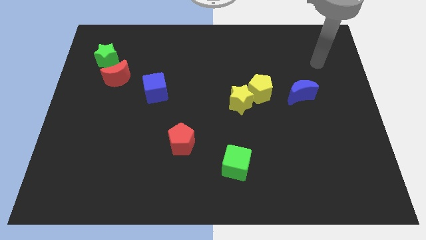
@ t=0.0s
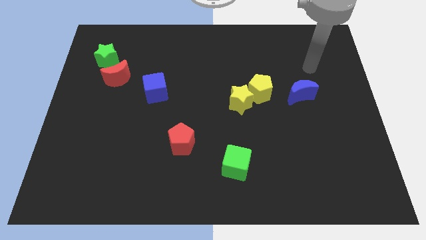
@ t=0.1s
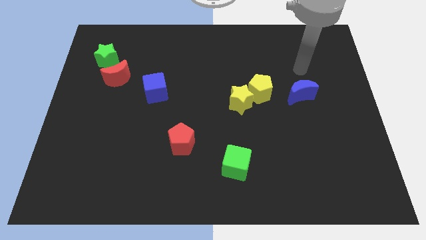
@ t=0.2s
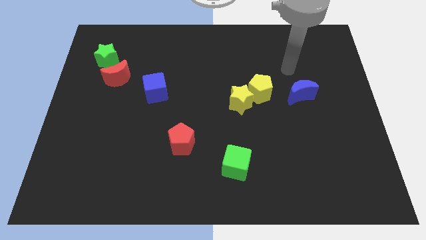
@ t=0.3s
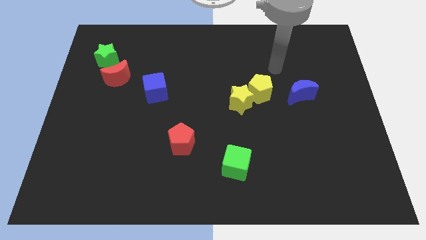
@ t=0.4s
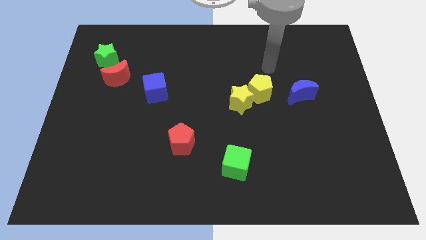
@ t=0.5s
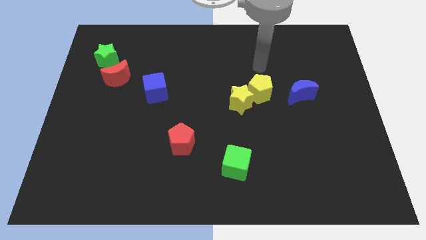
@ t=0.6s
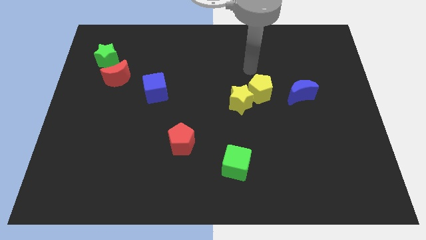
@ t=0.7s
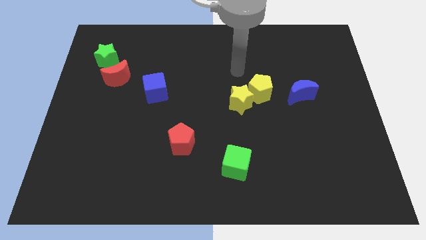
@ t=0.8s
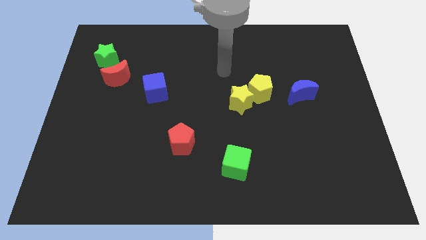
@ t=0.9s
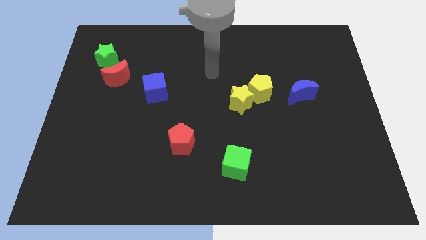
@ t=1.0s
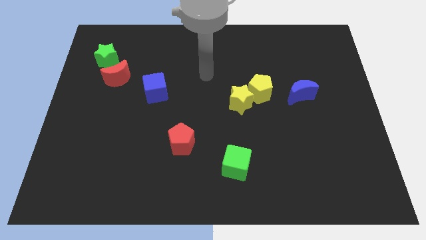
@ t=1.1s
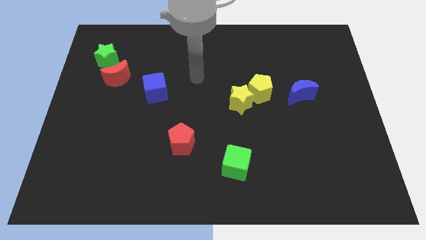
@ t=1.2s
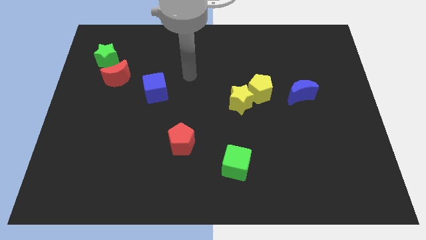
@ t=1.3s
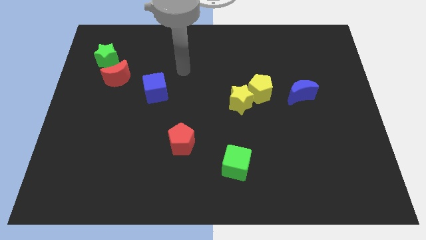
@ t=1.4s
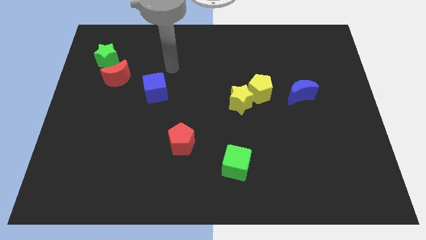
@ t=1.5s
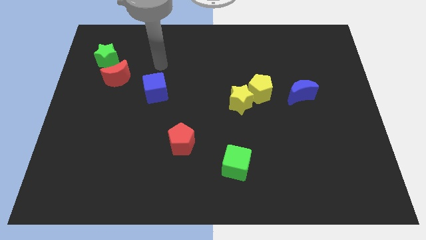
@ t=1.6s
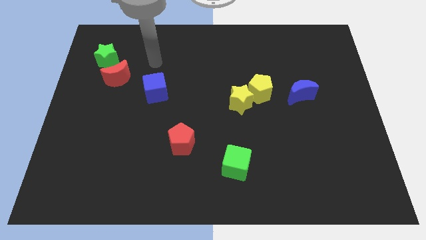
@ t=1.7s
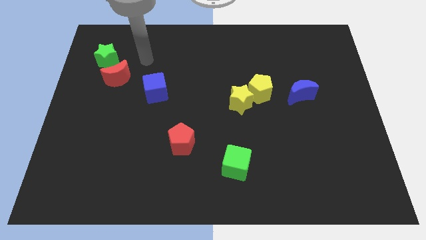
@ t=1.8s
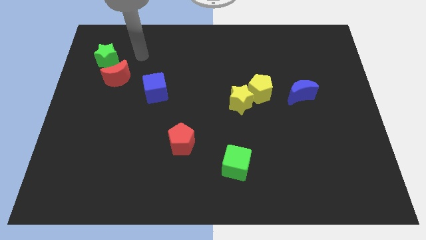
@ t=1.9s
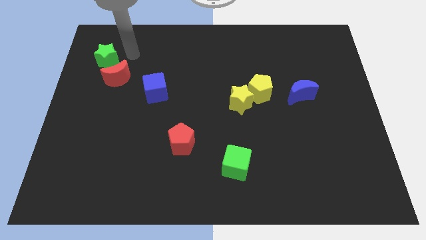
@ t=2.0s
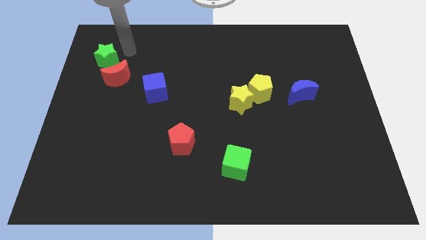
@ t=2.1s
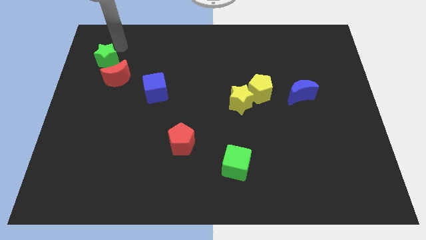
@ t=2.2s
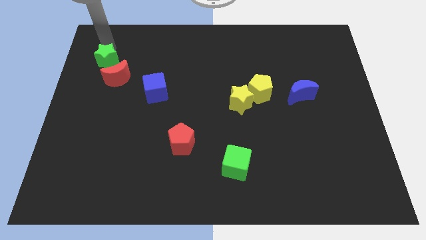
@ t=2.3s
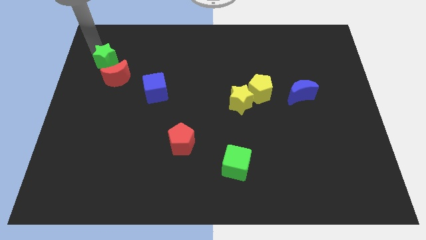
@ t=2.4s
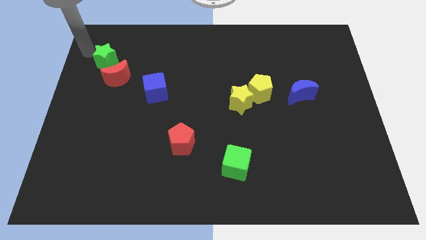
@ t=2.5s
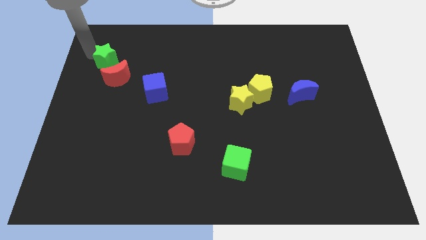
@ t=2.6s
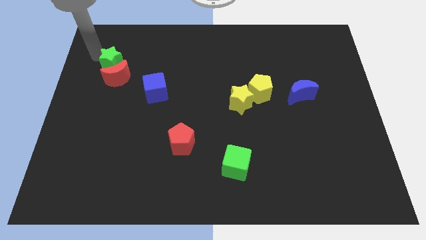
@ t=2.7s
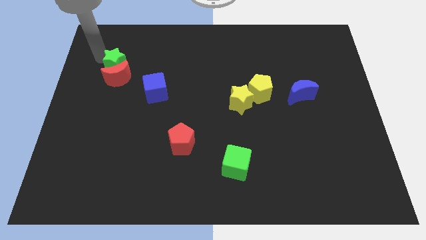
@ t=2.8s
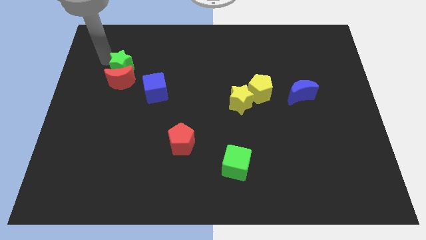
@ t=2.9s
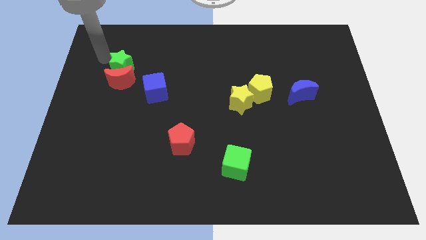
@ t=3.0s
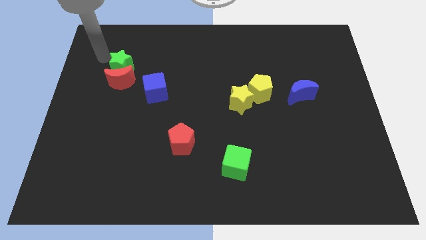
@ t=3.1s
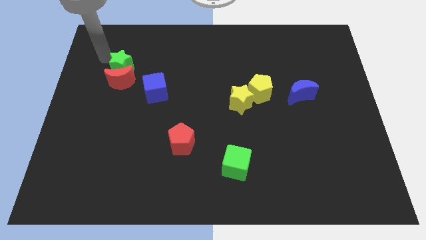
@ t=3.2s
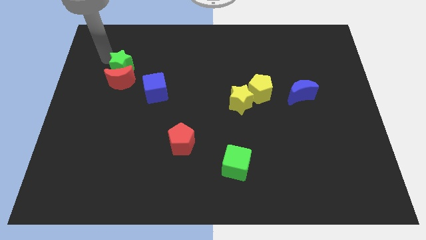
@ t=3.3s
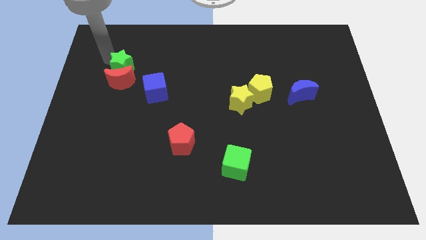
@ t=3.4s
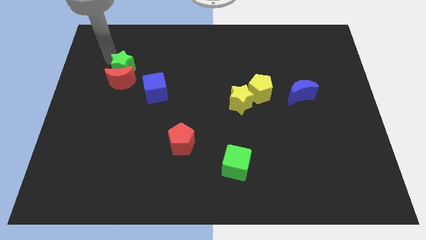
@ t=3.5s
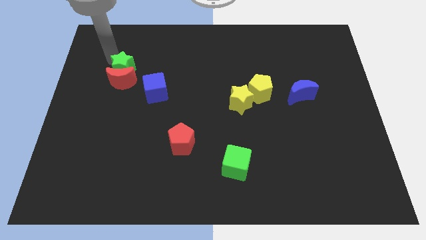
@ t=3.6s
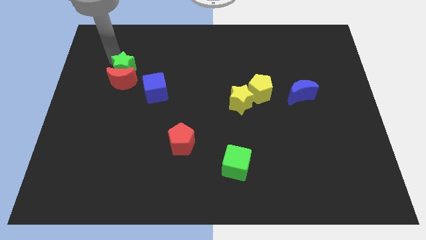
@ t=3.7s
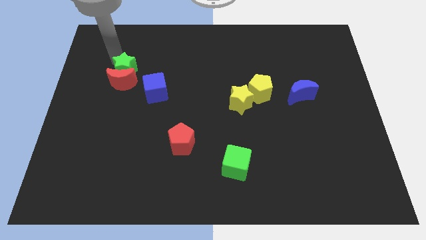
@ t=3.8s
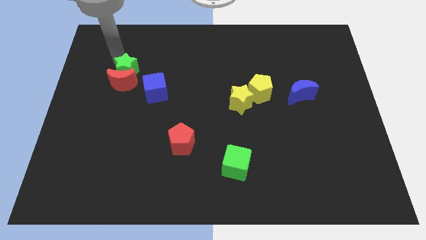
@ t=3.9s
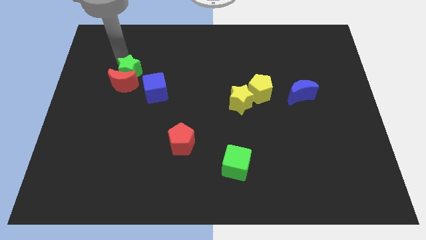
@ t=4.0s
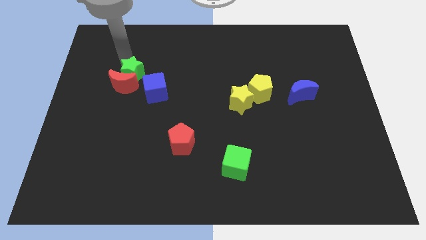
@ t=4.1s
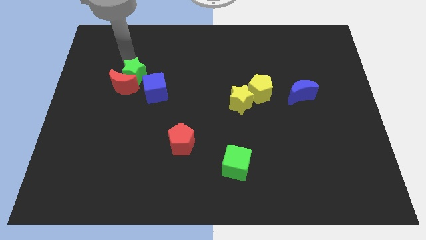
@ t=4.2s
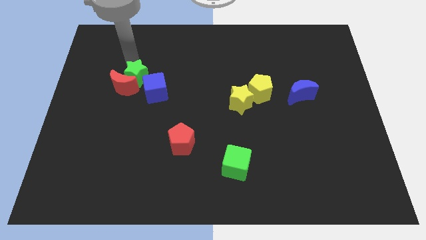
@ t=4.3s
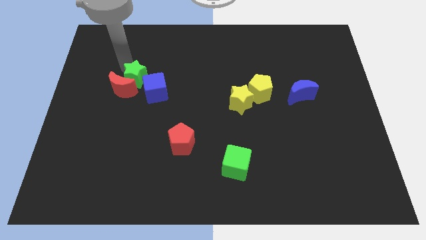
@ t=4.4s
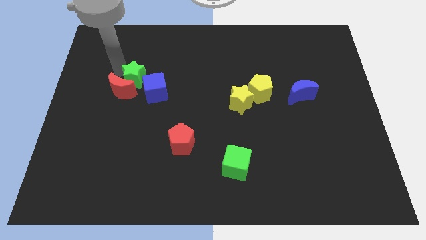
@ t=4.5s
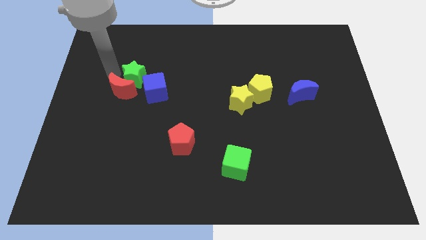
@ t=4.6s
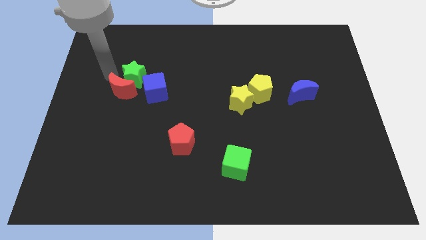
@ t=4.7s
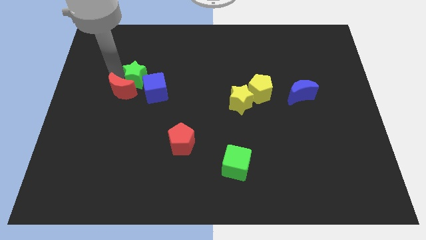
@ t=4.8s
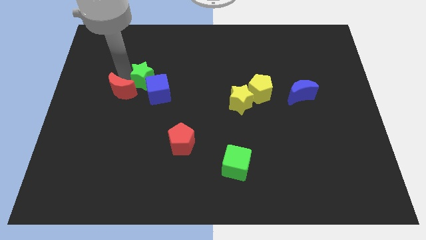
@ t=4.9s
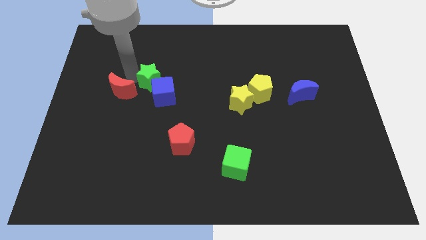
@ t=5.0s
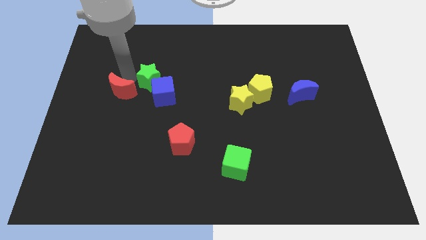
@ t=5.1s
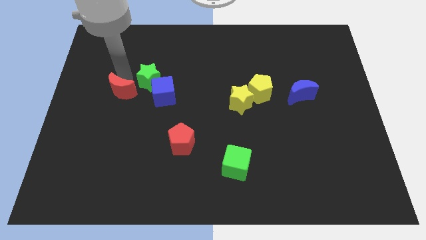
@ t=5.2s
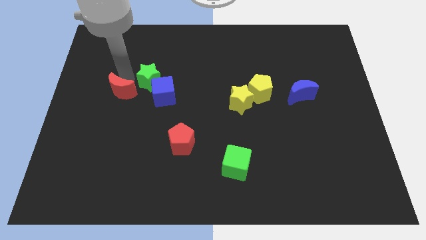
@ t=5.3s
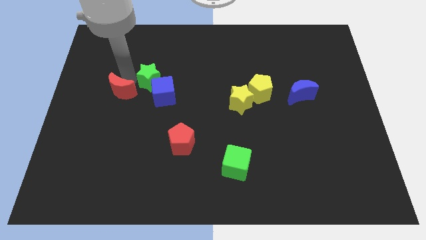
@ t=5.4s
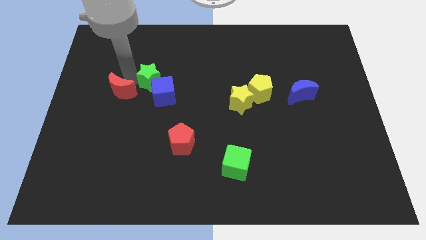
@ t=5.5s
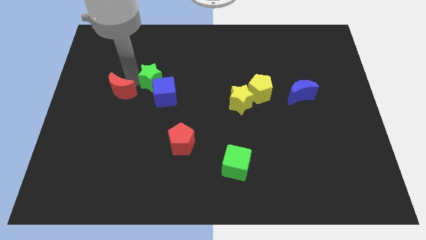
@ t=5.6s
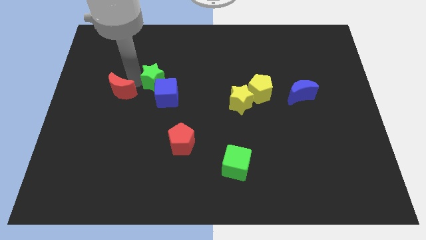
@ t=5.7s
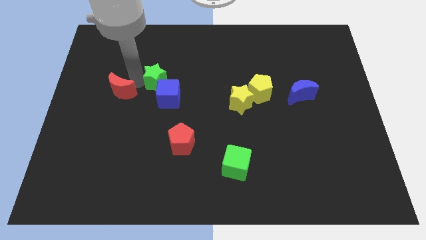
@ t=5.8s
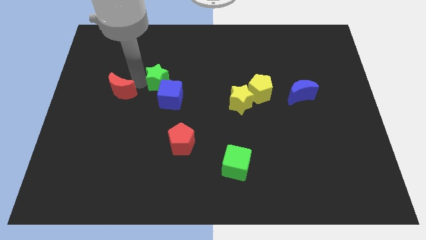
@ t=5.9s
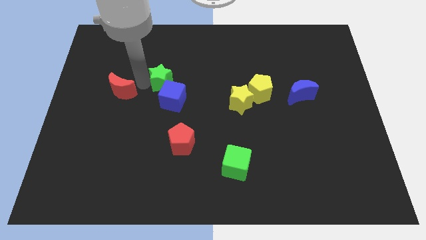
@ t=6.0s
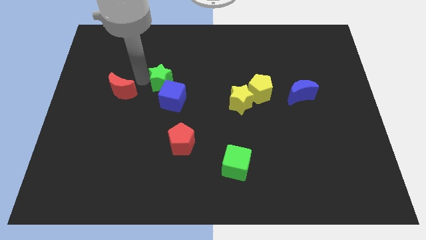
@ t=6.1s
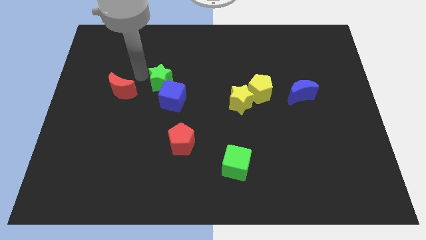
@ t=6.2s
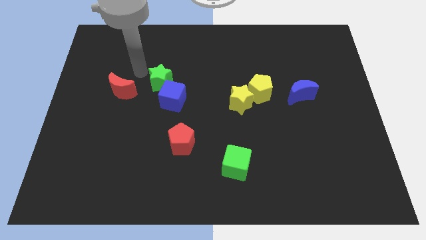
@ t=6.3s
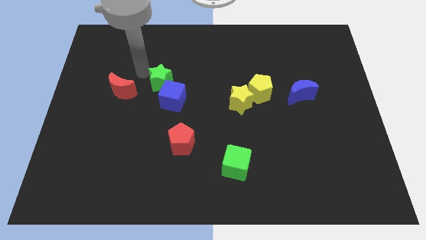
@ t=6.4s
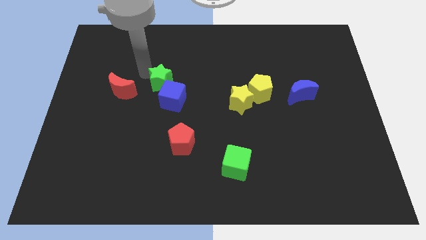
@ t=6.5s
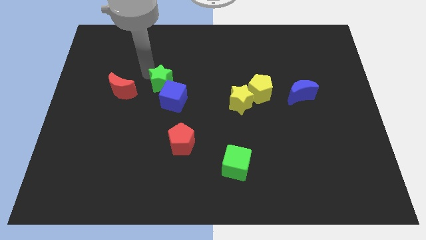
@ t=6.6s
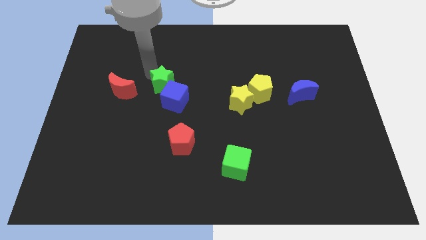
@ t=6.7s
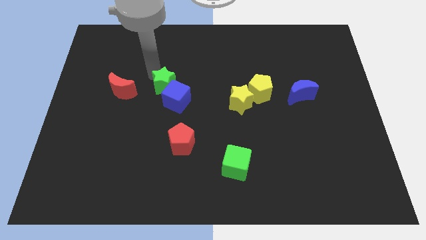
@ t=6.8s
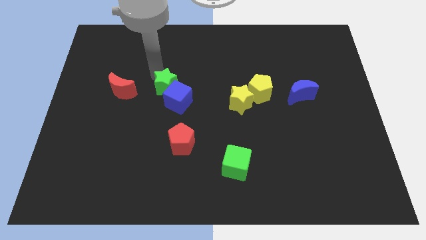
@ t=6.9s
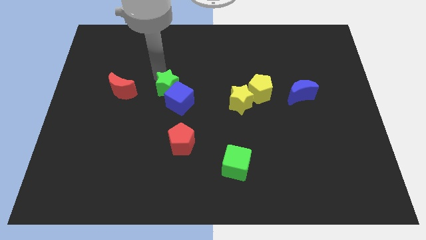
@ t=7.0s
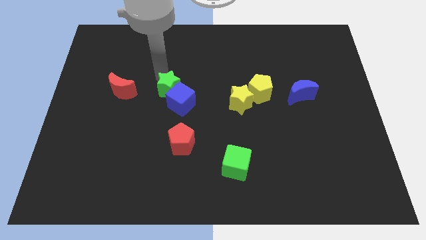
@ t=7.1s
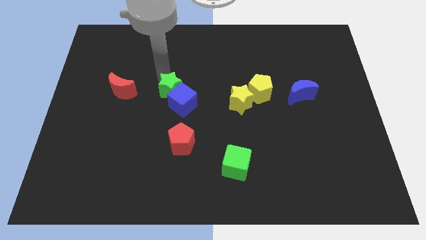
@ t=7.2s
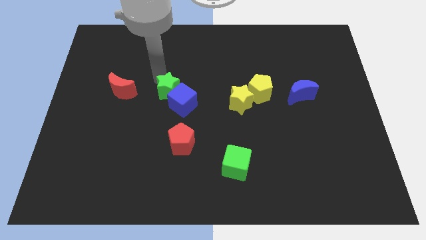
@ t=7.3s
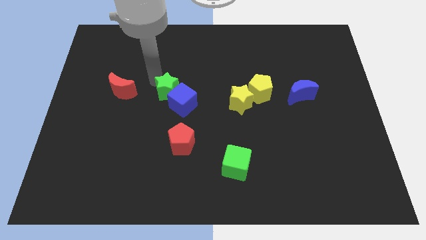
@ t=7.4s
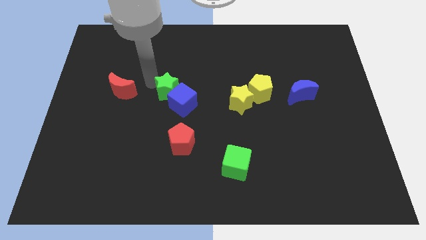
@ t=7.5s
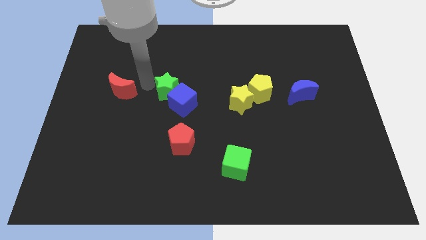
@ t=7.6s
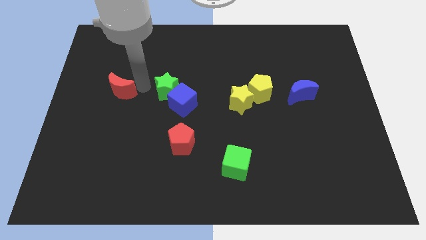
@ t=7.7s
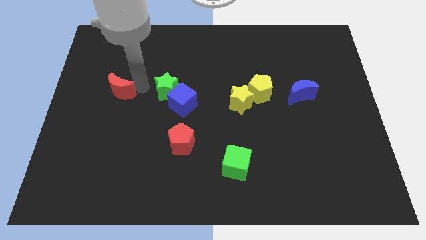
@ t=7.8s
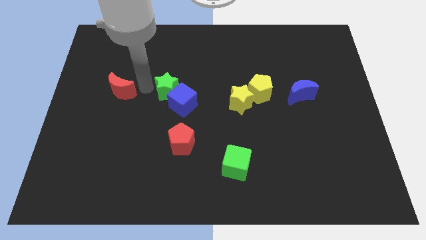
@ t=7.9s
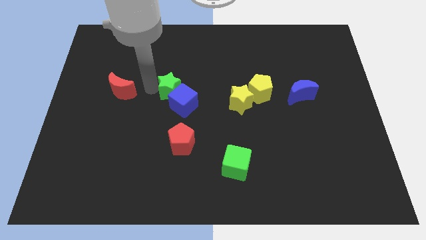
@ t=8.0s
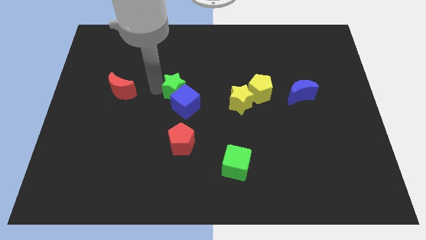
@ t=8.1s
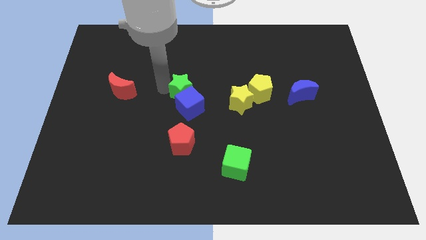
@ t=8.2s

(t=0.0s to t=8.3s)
move the green star to the left of the yellow star
